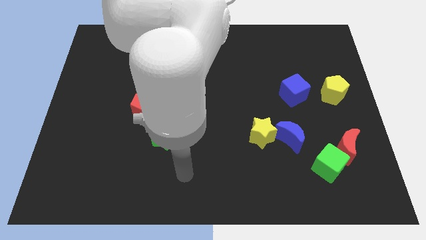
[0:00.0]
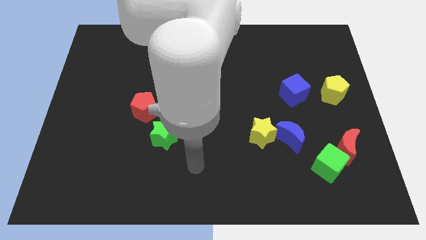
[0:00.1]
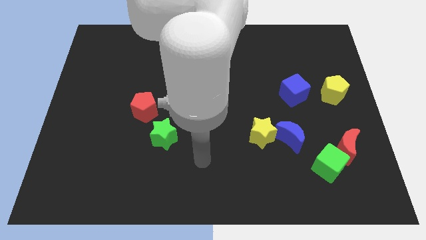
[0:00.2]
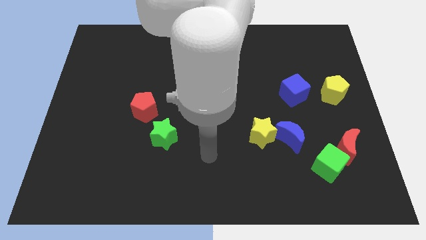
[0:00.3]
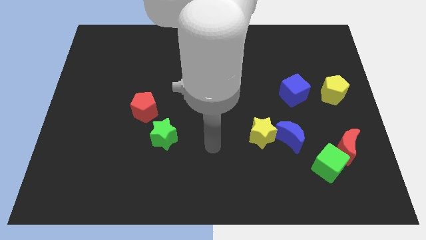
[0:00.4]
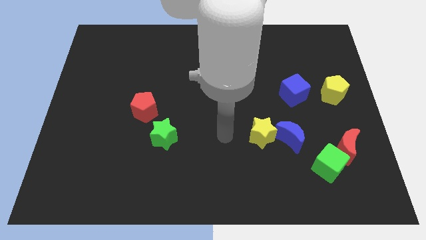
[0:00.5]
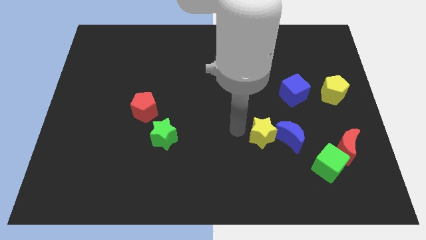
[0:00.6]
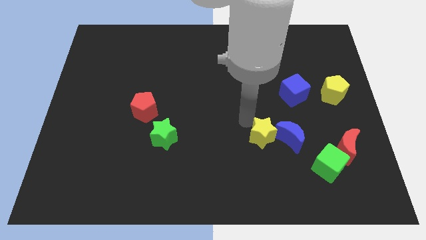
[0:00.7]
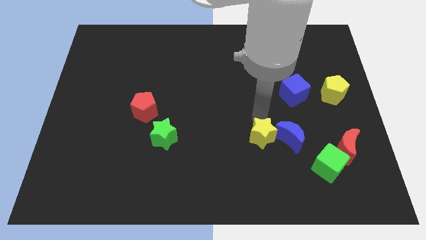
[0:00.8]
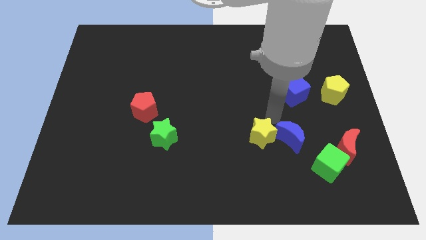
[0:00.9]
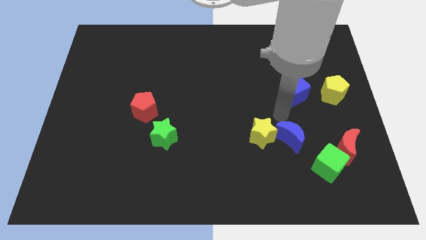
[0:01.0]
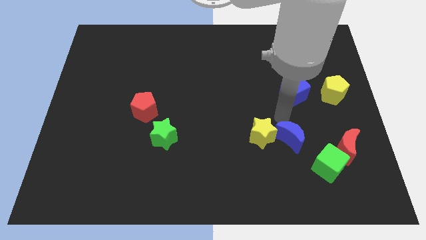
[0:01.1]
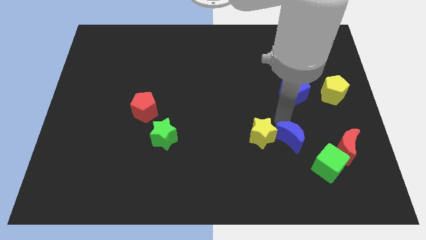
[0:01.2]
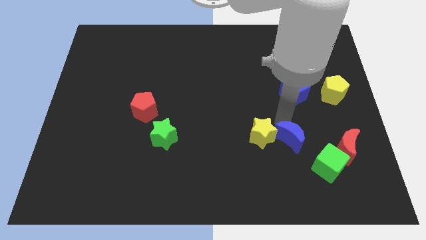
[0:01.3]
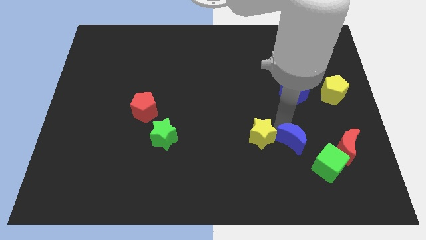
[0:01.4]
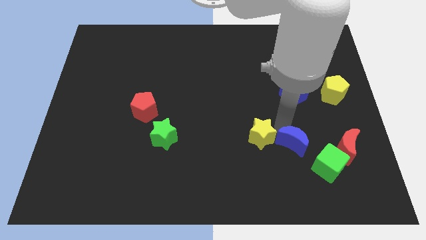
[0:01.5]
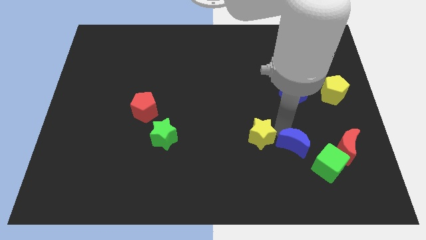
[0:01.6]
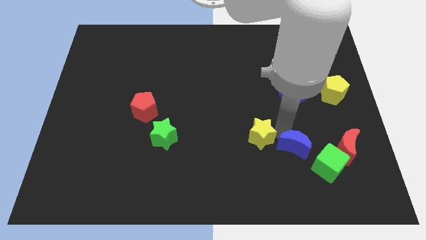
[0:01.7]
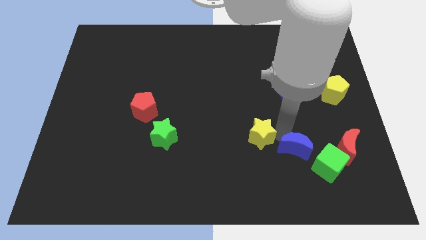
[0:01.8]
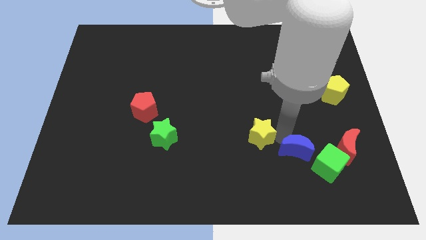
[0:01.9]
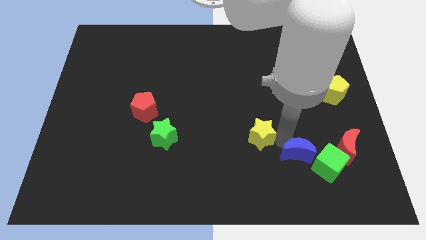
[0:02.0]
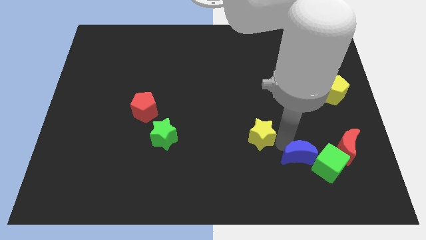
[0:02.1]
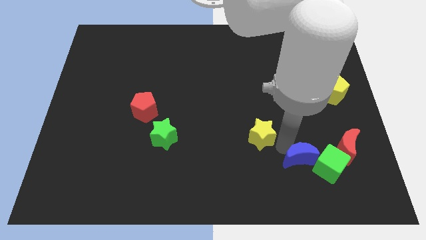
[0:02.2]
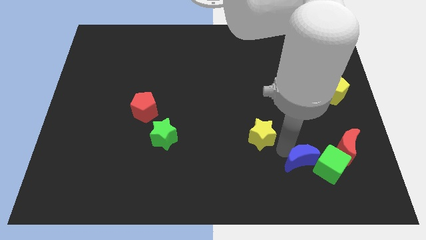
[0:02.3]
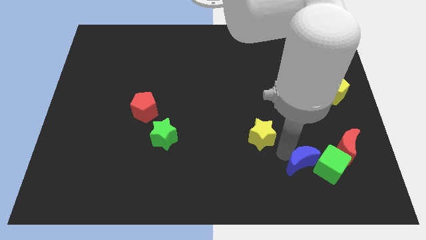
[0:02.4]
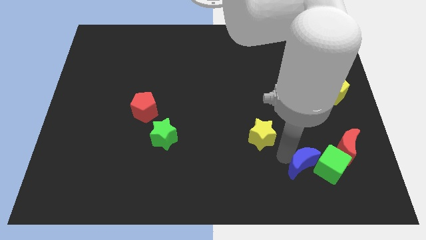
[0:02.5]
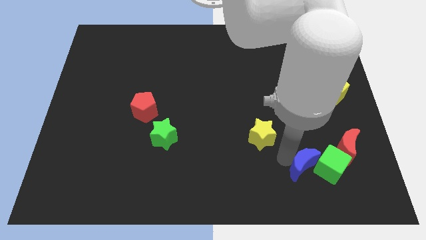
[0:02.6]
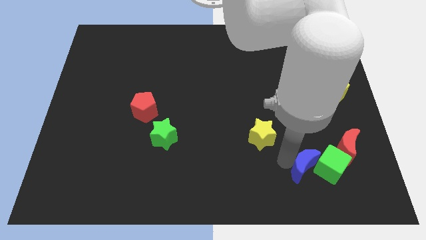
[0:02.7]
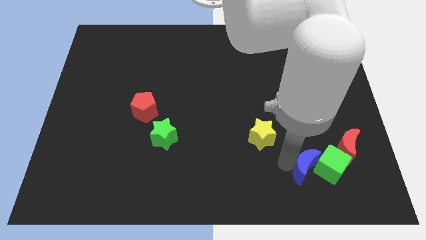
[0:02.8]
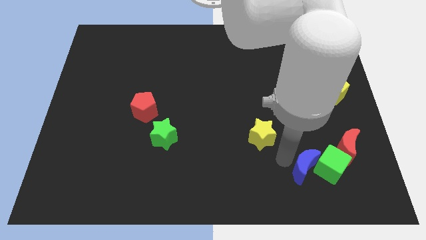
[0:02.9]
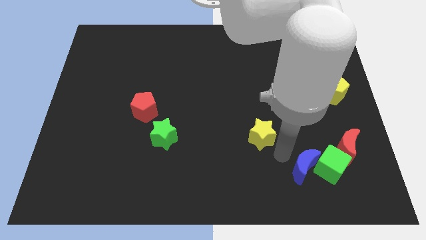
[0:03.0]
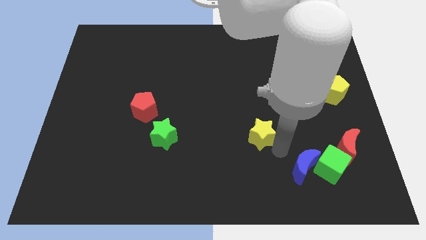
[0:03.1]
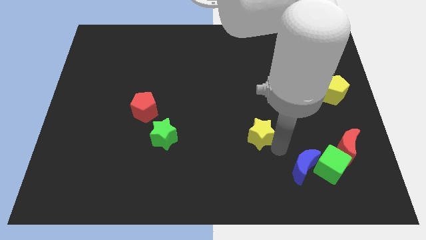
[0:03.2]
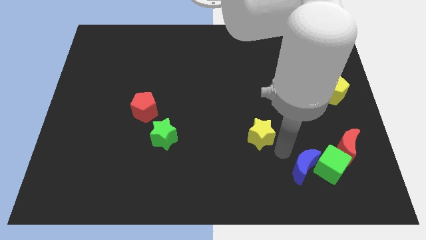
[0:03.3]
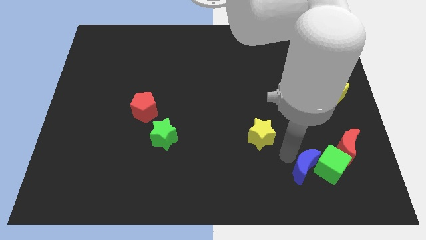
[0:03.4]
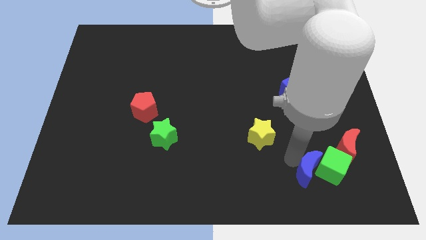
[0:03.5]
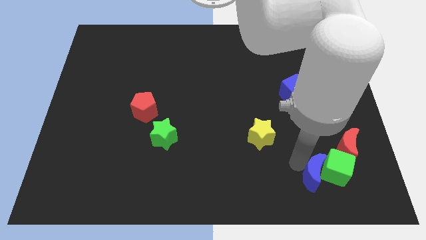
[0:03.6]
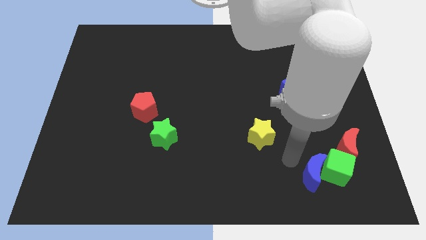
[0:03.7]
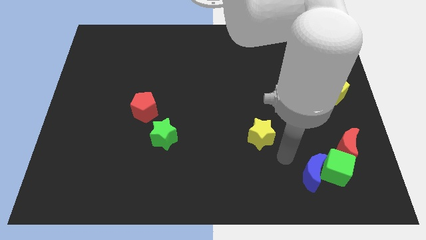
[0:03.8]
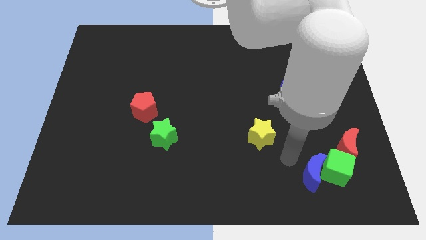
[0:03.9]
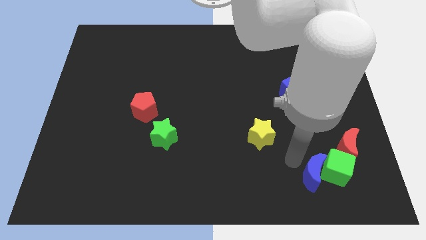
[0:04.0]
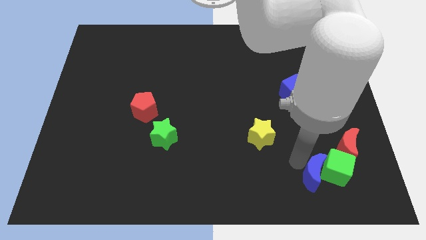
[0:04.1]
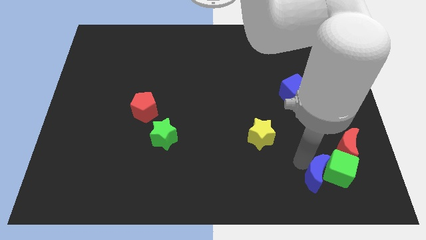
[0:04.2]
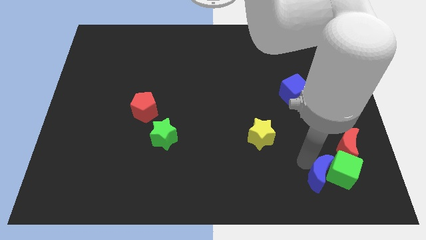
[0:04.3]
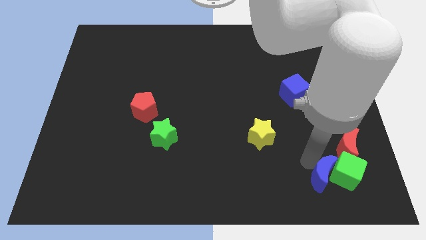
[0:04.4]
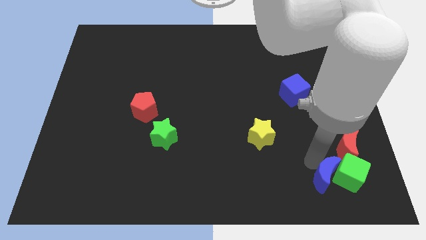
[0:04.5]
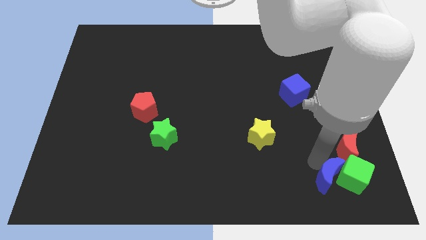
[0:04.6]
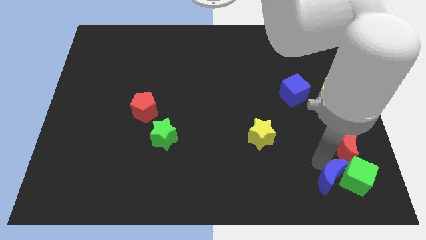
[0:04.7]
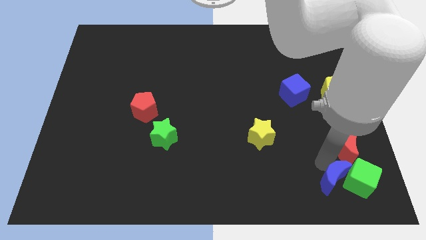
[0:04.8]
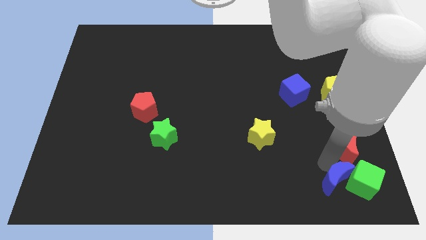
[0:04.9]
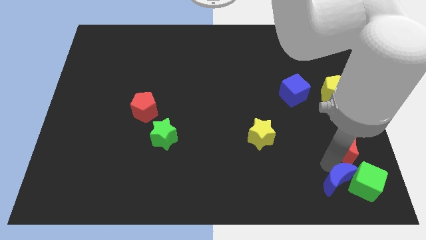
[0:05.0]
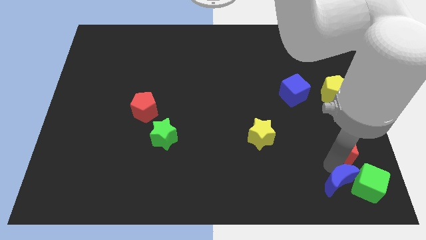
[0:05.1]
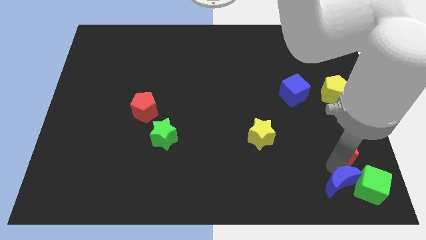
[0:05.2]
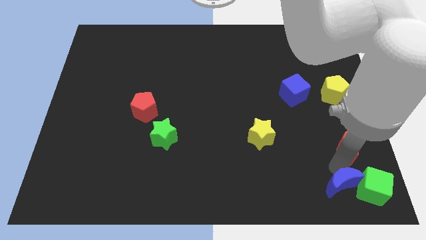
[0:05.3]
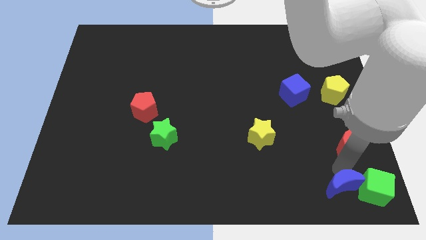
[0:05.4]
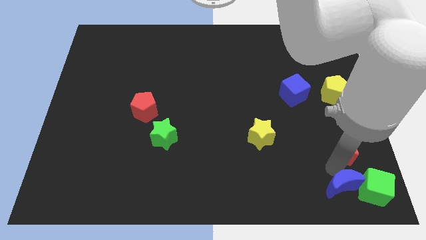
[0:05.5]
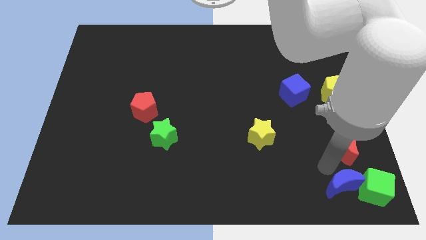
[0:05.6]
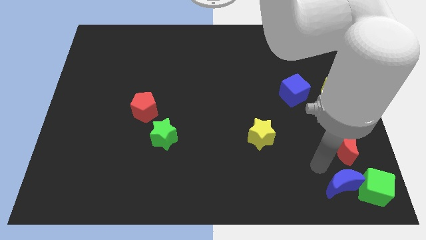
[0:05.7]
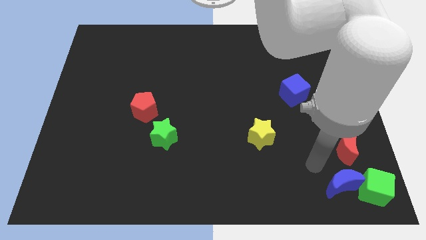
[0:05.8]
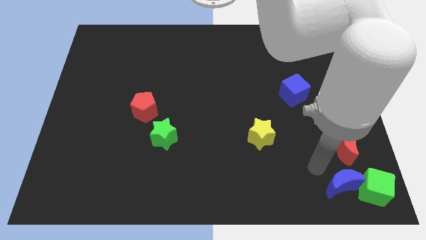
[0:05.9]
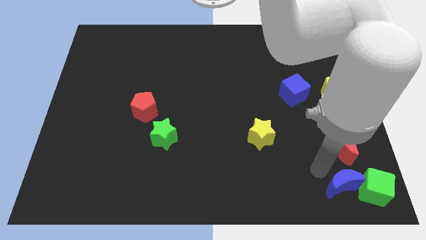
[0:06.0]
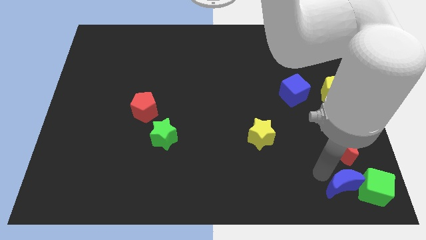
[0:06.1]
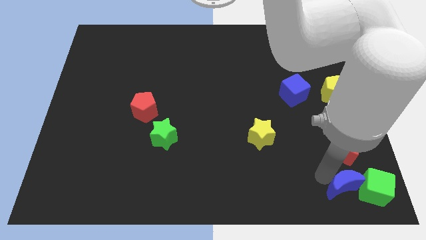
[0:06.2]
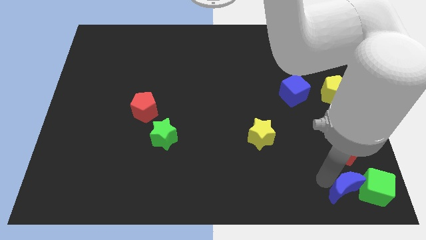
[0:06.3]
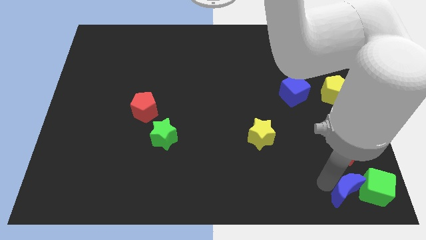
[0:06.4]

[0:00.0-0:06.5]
slide the blue moon to the bottom right corner
